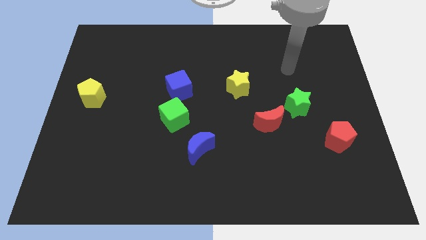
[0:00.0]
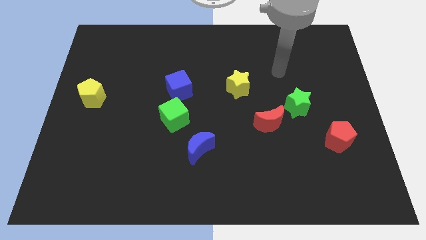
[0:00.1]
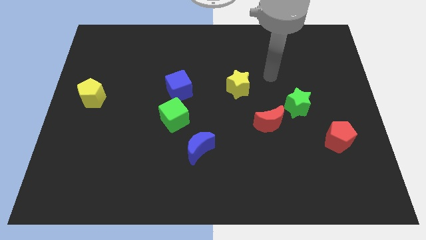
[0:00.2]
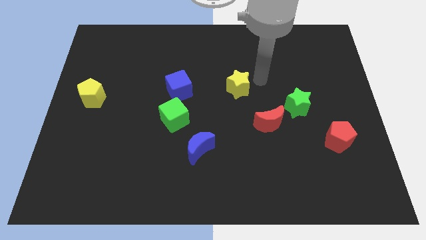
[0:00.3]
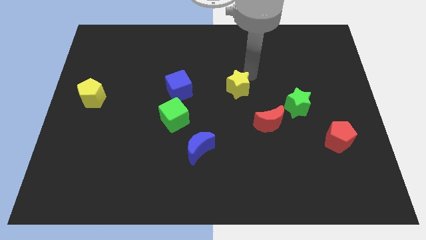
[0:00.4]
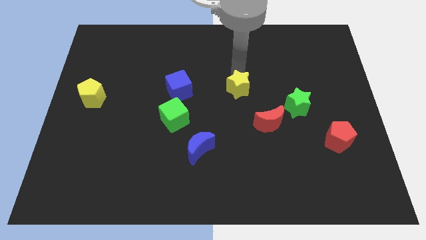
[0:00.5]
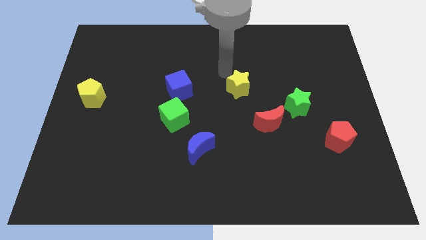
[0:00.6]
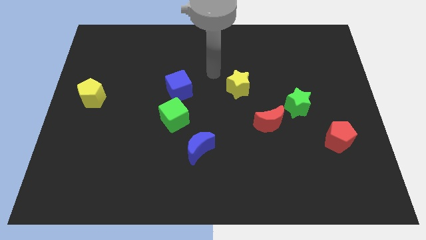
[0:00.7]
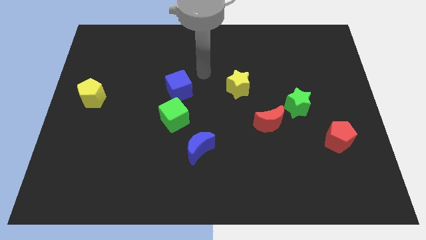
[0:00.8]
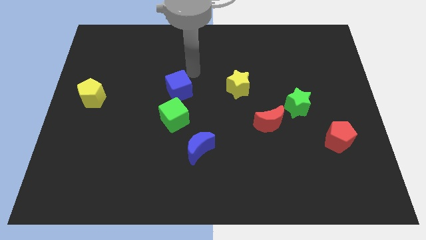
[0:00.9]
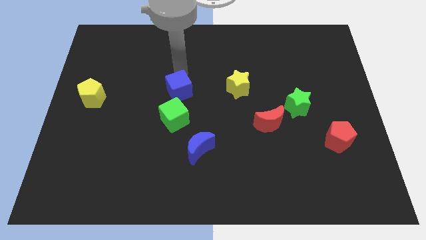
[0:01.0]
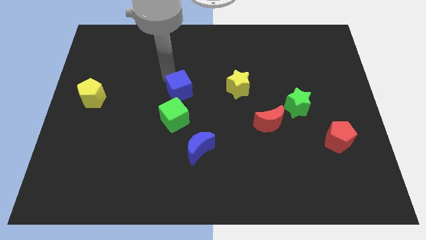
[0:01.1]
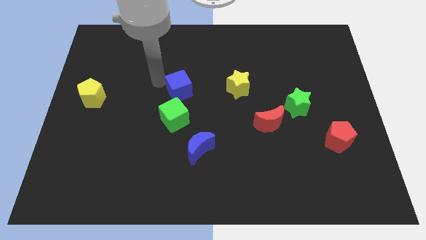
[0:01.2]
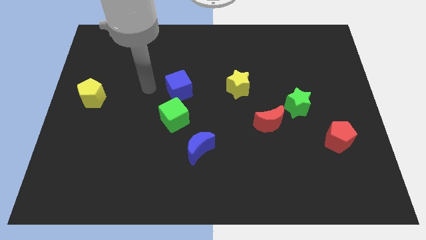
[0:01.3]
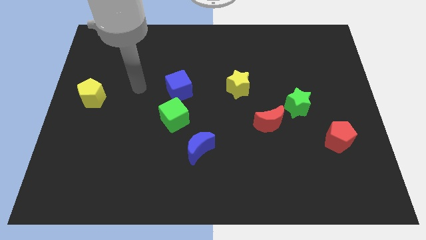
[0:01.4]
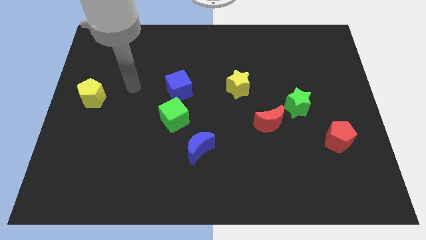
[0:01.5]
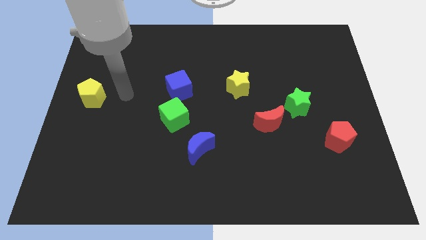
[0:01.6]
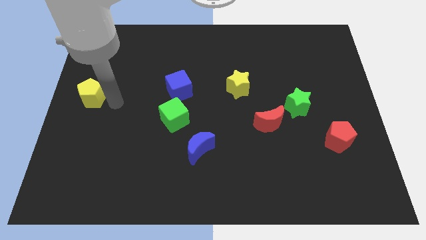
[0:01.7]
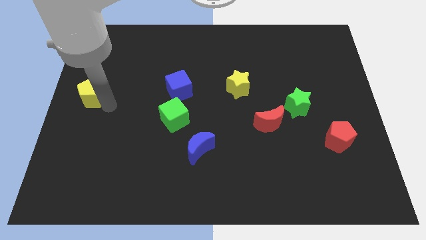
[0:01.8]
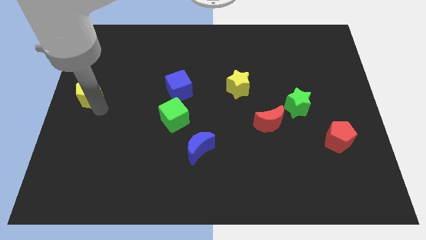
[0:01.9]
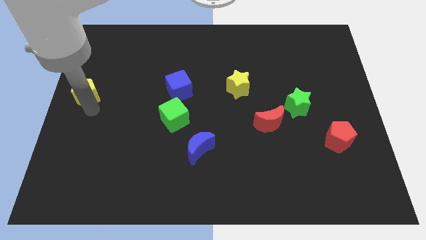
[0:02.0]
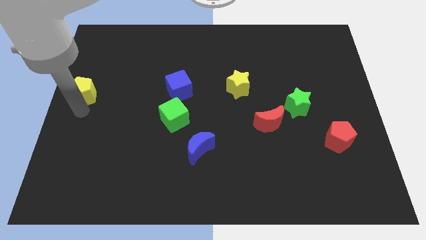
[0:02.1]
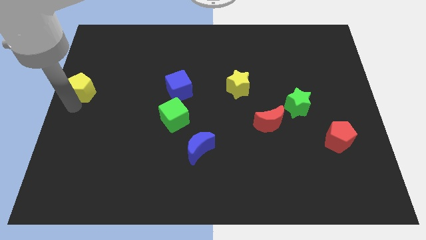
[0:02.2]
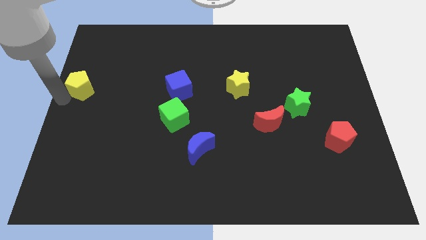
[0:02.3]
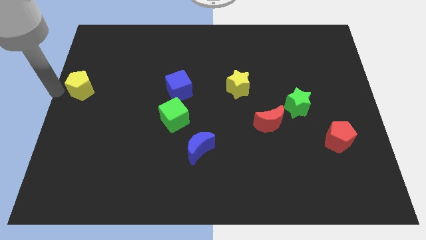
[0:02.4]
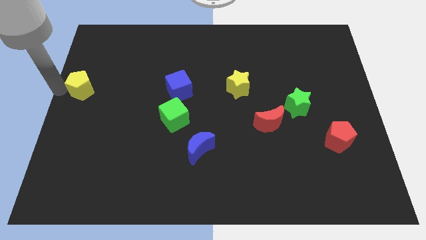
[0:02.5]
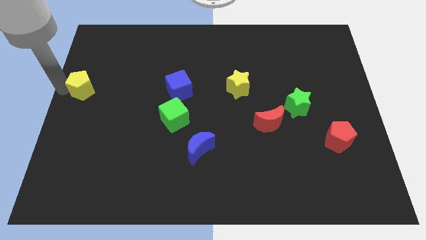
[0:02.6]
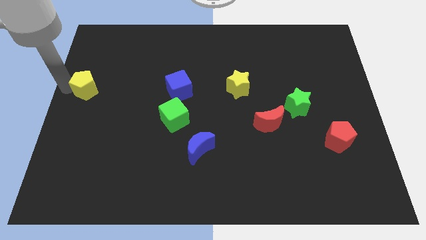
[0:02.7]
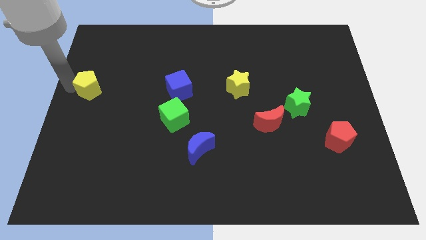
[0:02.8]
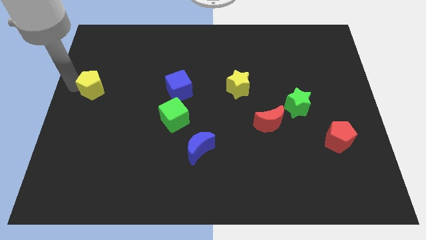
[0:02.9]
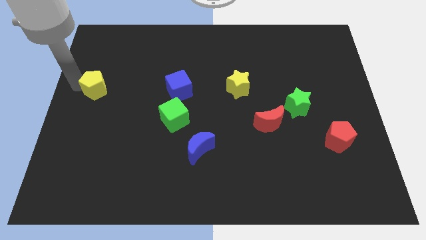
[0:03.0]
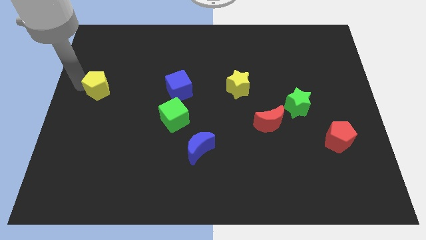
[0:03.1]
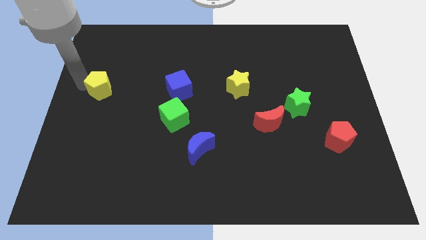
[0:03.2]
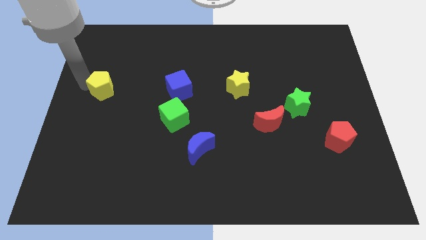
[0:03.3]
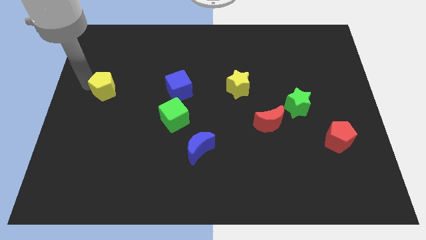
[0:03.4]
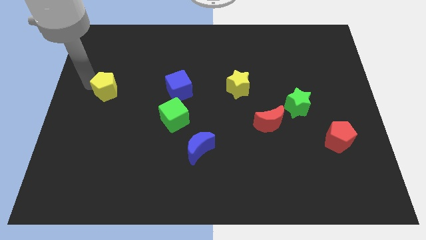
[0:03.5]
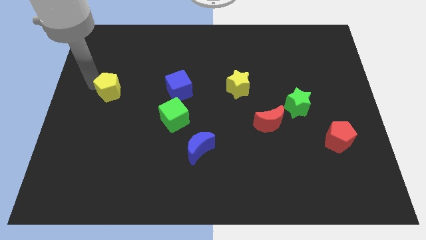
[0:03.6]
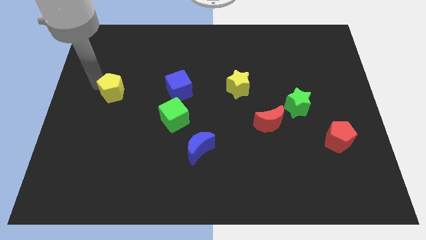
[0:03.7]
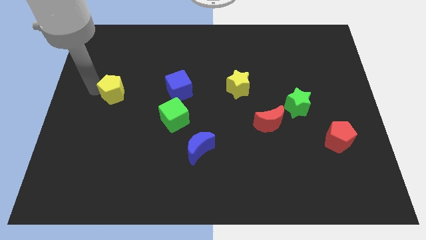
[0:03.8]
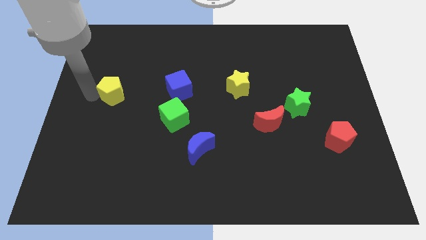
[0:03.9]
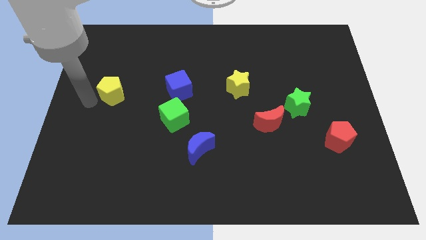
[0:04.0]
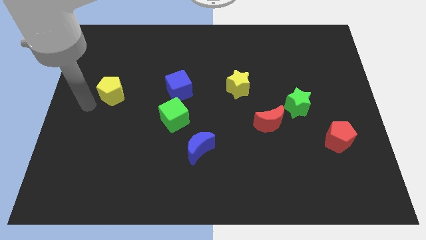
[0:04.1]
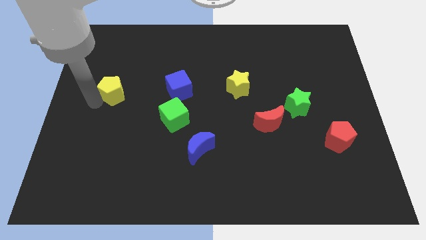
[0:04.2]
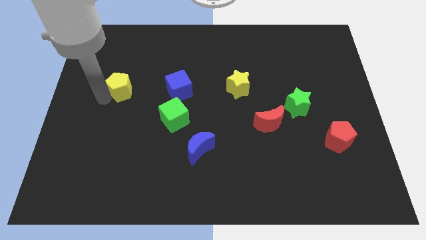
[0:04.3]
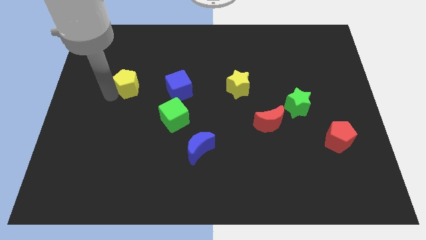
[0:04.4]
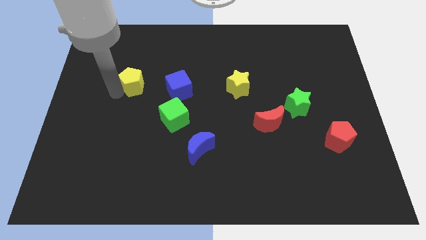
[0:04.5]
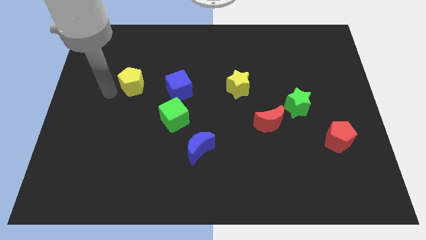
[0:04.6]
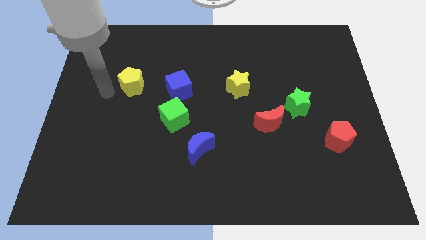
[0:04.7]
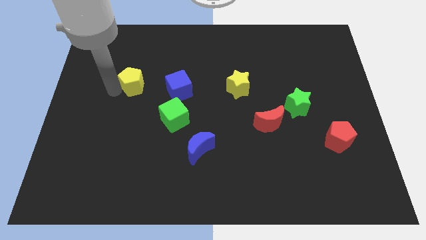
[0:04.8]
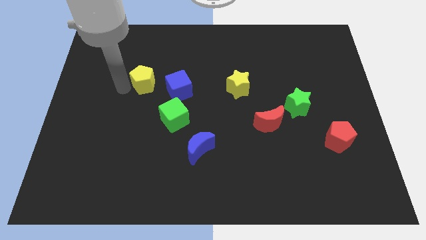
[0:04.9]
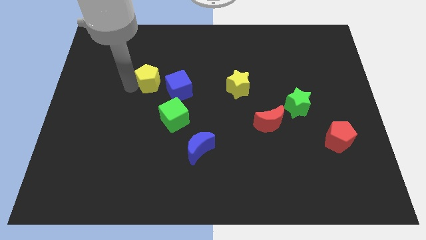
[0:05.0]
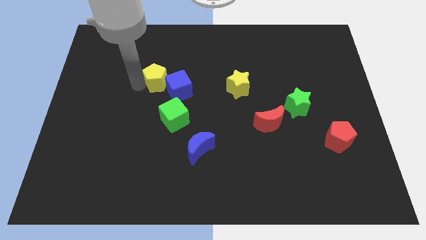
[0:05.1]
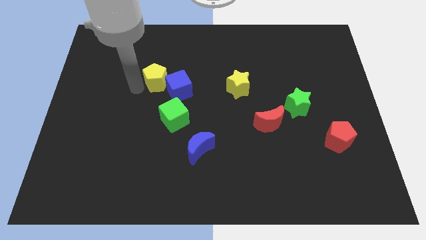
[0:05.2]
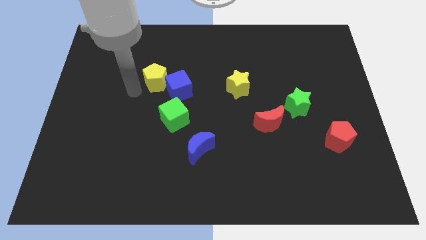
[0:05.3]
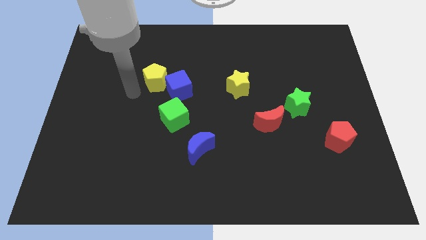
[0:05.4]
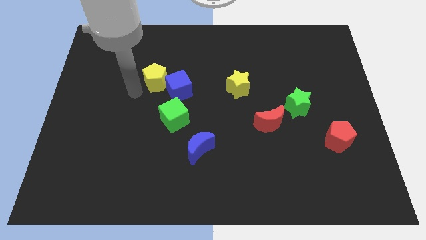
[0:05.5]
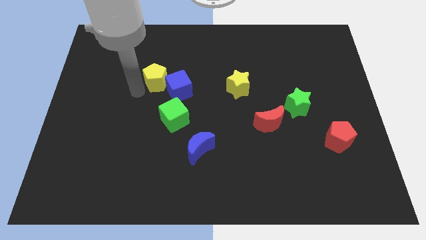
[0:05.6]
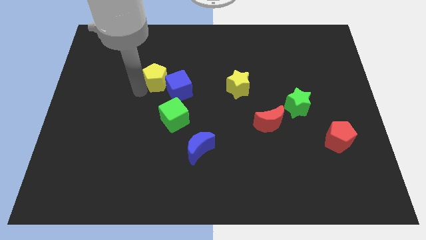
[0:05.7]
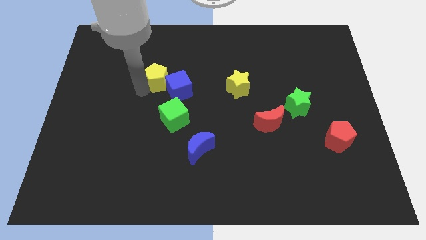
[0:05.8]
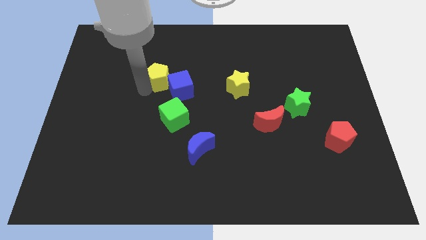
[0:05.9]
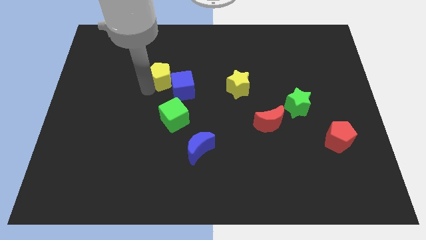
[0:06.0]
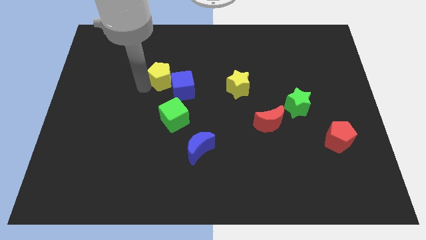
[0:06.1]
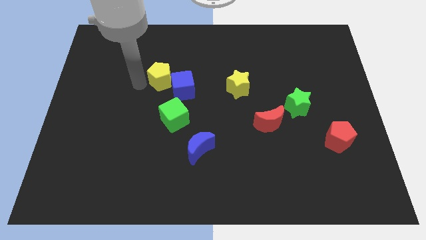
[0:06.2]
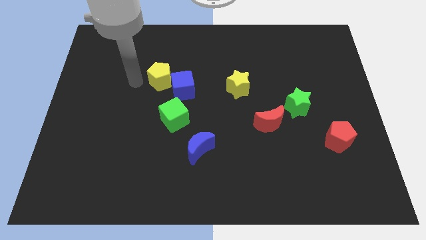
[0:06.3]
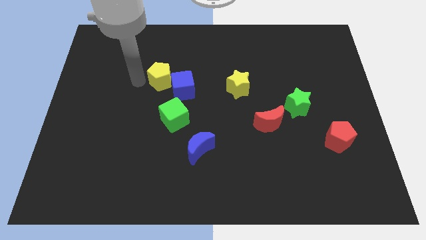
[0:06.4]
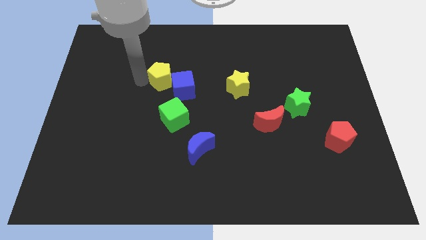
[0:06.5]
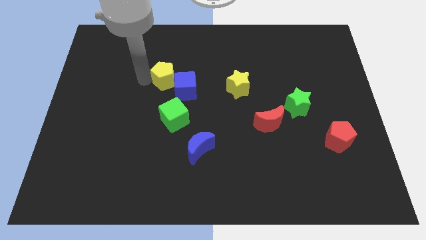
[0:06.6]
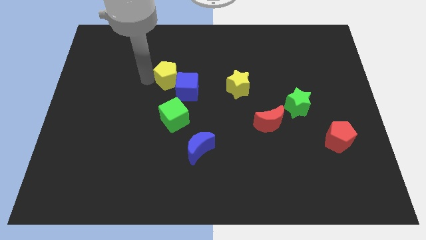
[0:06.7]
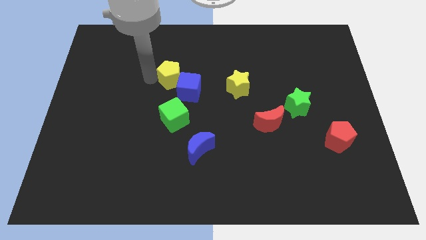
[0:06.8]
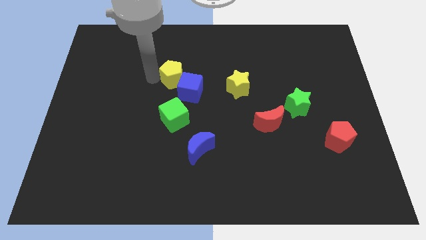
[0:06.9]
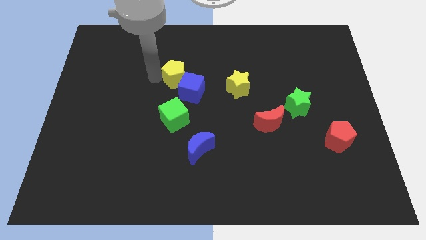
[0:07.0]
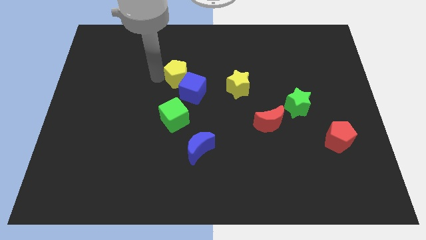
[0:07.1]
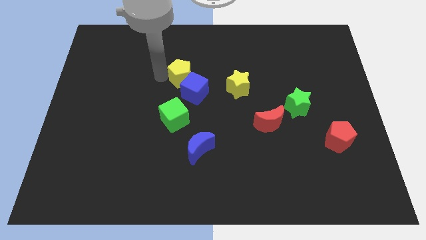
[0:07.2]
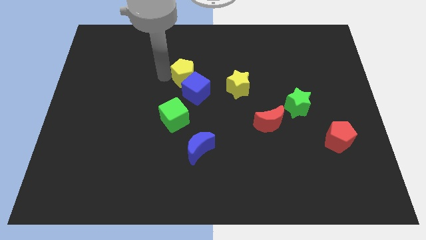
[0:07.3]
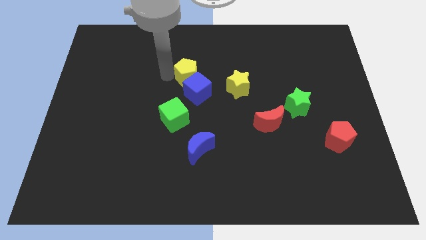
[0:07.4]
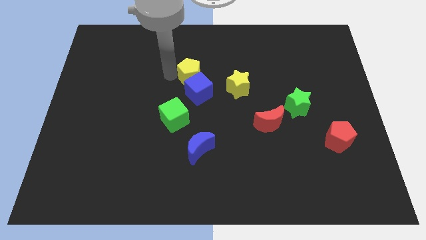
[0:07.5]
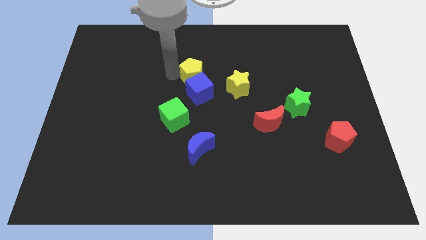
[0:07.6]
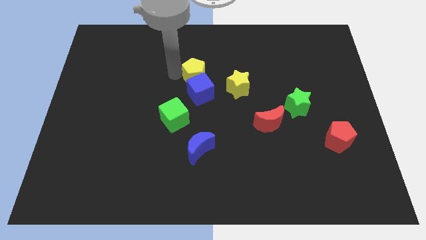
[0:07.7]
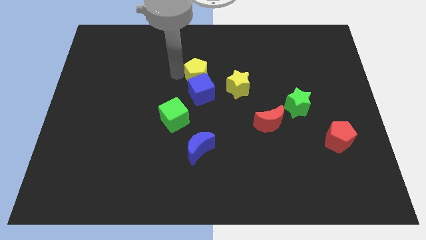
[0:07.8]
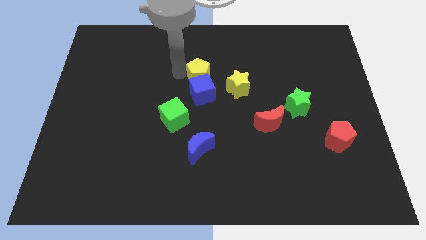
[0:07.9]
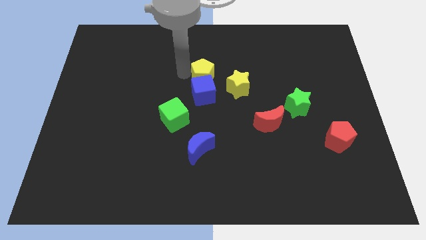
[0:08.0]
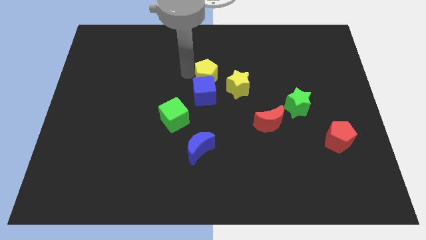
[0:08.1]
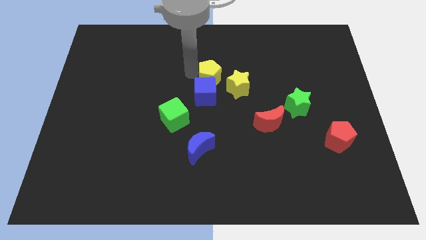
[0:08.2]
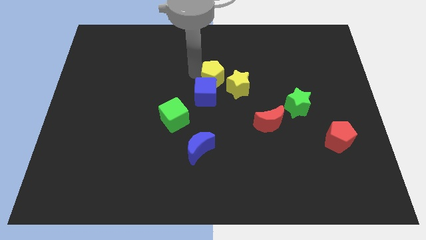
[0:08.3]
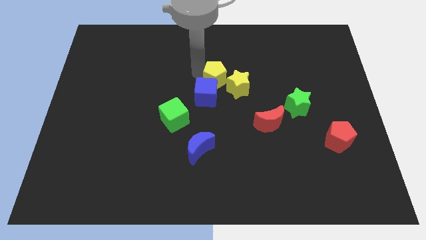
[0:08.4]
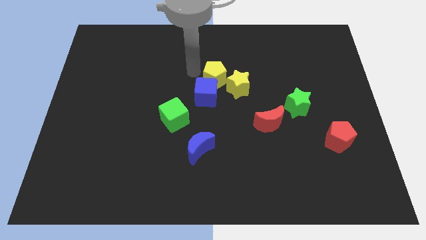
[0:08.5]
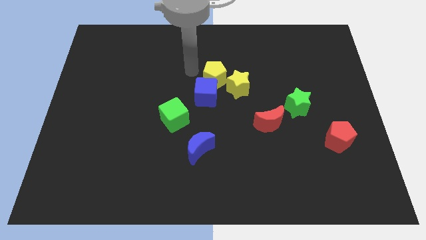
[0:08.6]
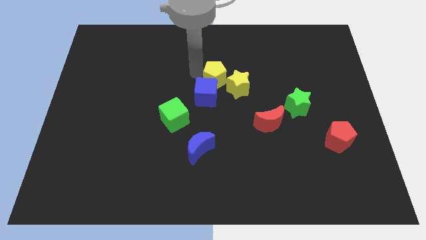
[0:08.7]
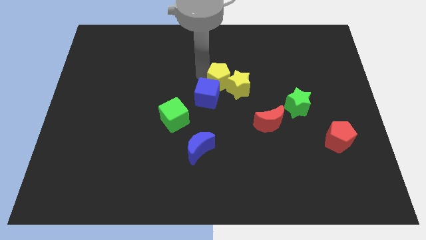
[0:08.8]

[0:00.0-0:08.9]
slide the yellow pentagon close to the yellow star
